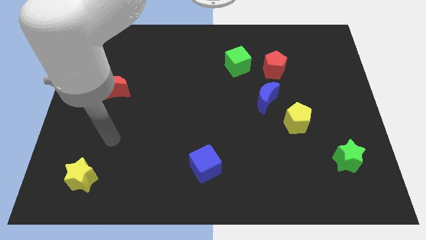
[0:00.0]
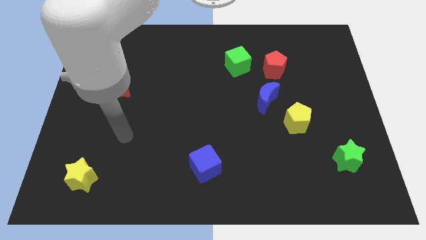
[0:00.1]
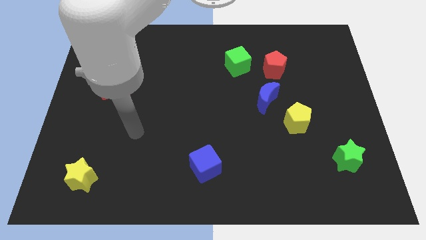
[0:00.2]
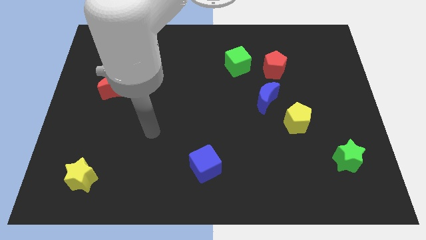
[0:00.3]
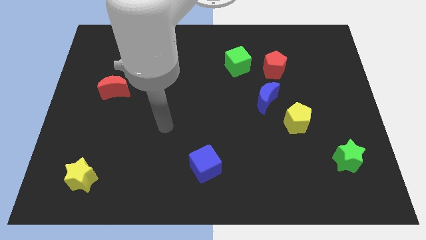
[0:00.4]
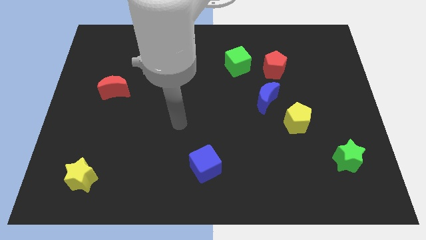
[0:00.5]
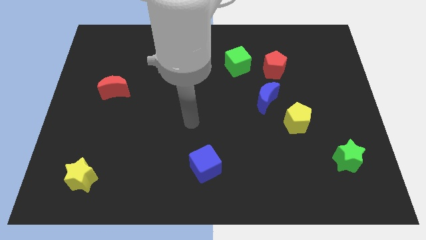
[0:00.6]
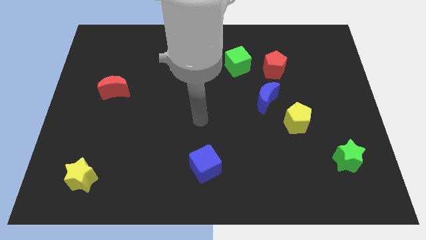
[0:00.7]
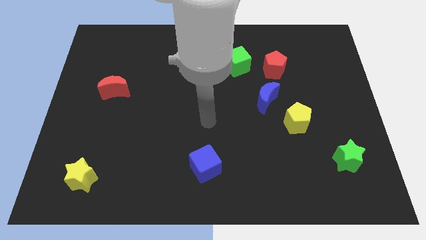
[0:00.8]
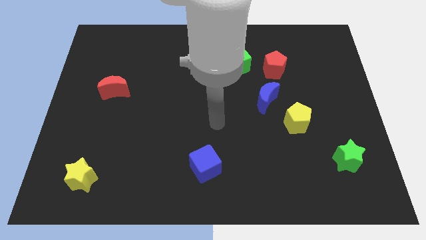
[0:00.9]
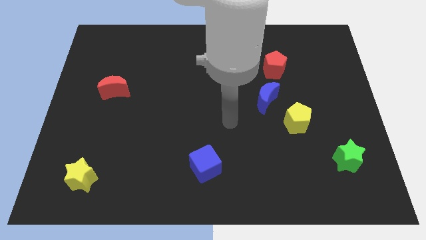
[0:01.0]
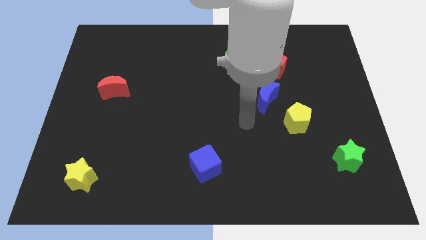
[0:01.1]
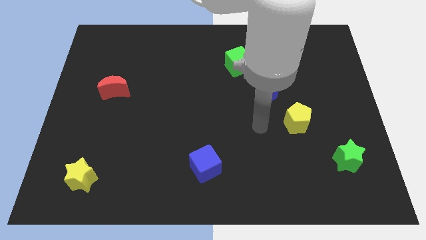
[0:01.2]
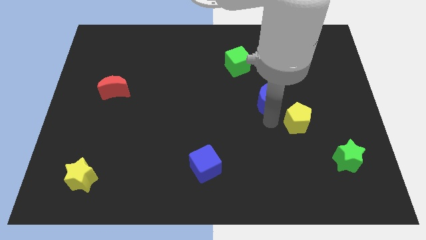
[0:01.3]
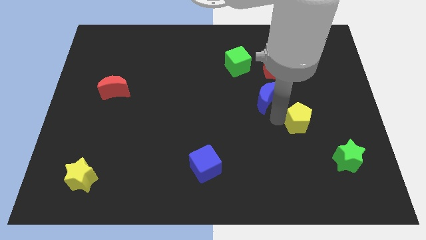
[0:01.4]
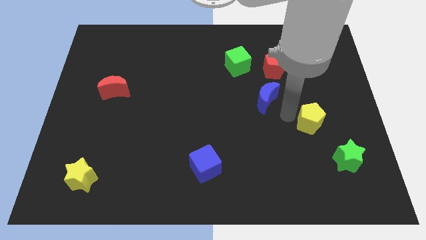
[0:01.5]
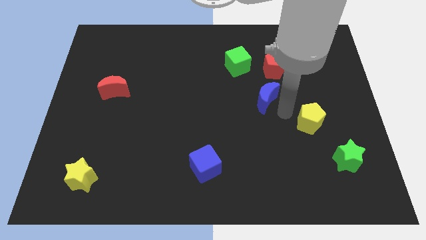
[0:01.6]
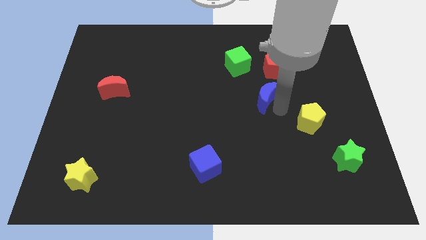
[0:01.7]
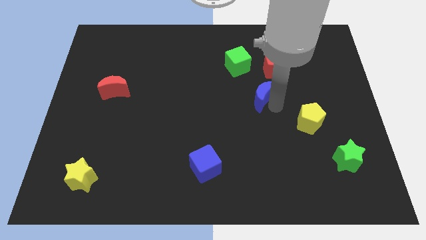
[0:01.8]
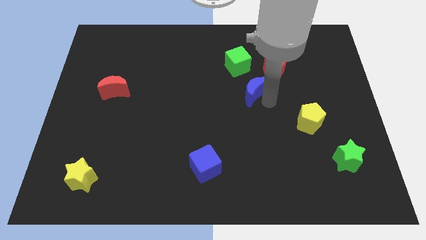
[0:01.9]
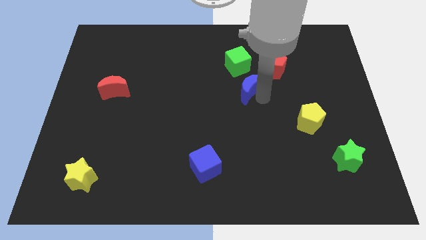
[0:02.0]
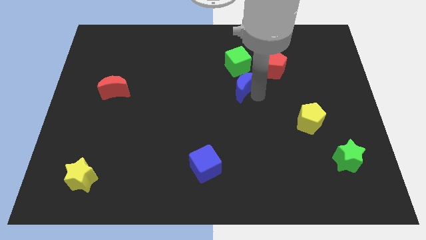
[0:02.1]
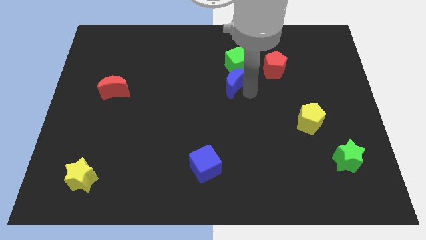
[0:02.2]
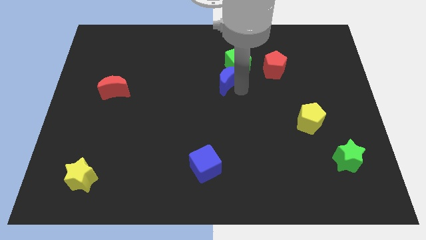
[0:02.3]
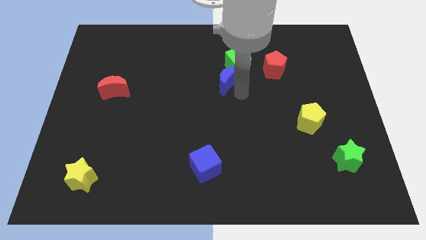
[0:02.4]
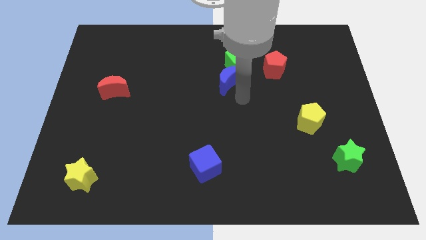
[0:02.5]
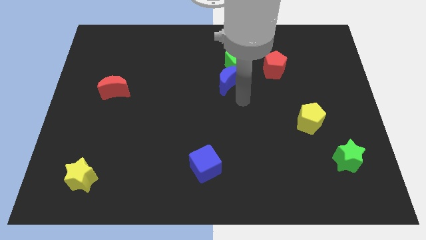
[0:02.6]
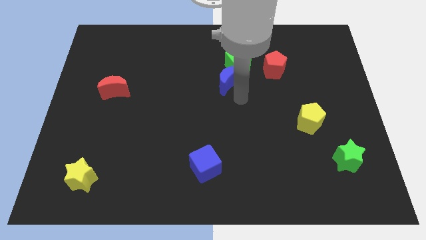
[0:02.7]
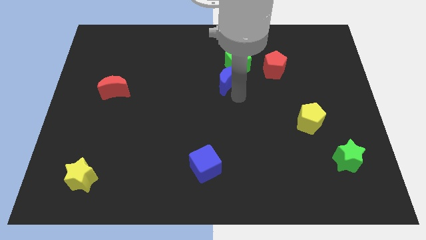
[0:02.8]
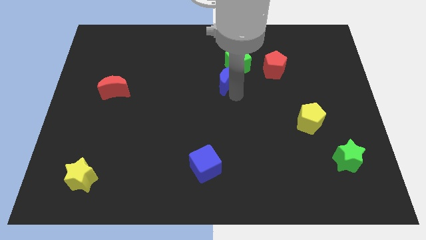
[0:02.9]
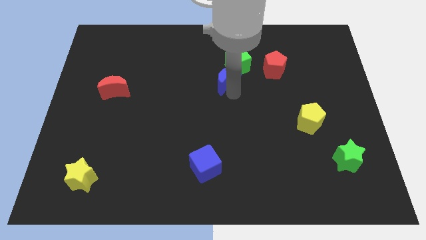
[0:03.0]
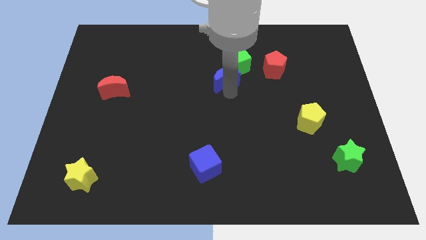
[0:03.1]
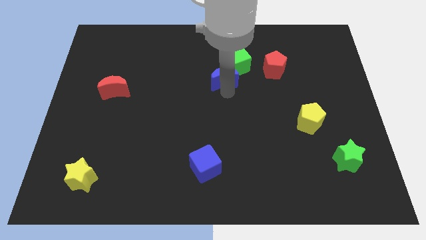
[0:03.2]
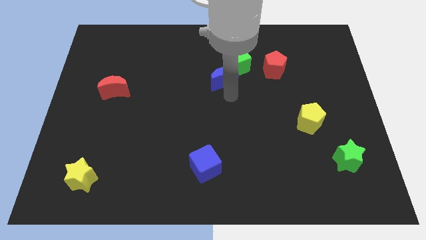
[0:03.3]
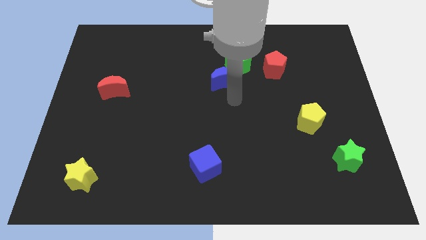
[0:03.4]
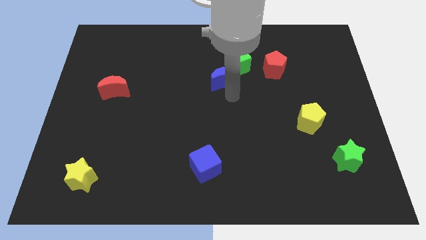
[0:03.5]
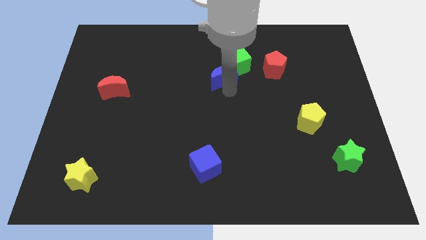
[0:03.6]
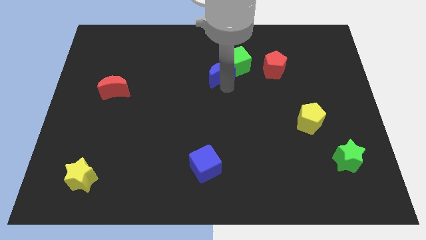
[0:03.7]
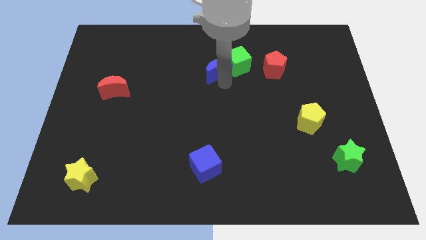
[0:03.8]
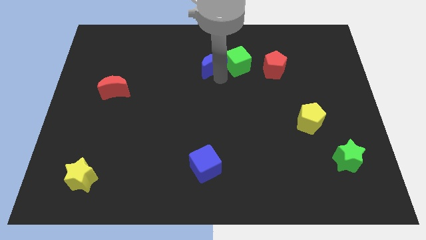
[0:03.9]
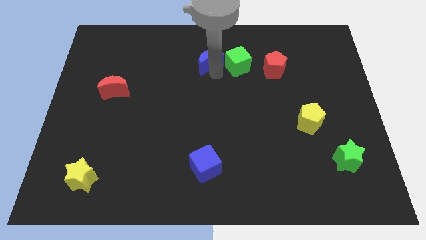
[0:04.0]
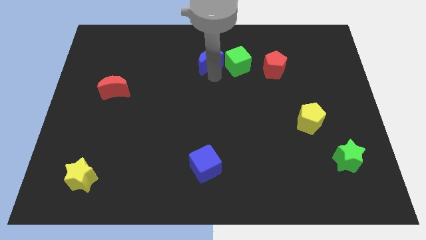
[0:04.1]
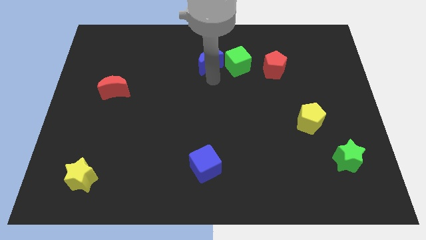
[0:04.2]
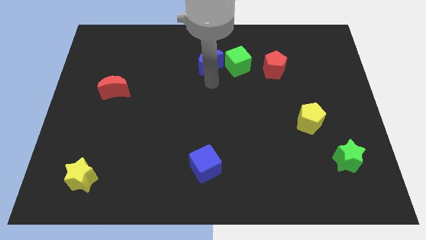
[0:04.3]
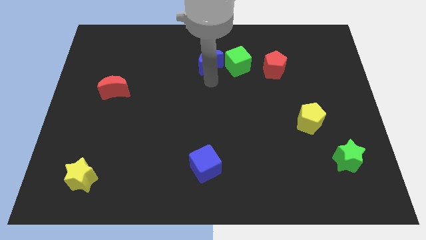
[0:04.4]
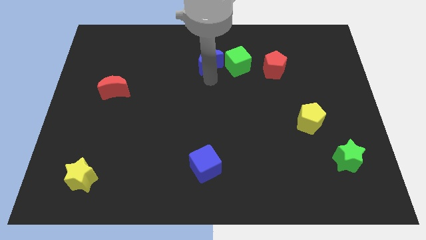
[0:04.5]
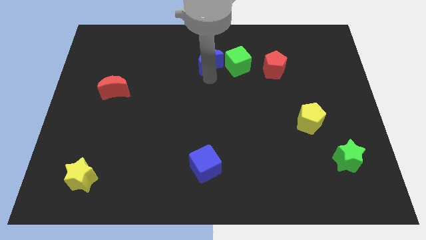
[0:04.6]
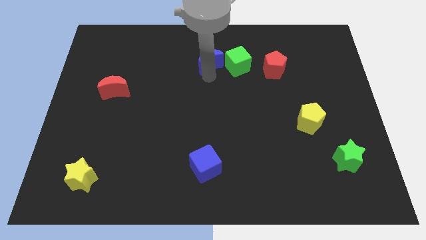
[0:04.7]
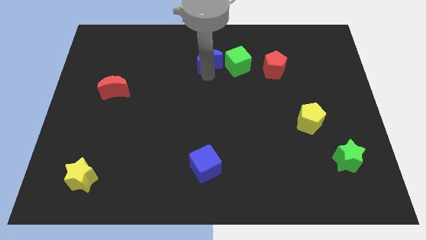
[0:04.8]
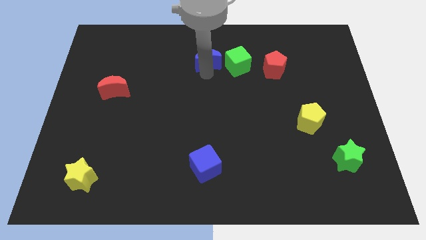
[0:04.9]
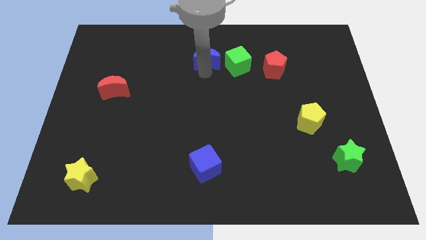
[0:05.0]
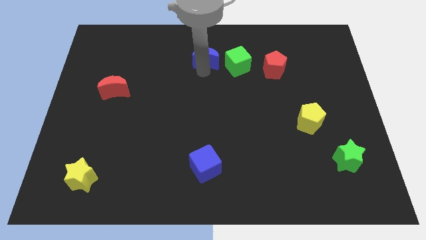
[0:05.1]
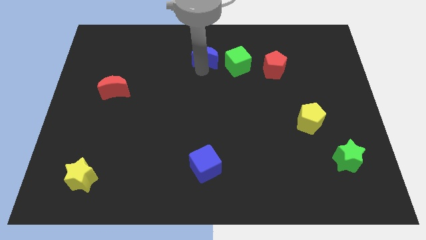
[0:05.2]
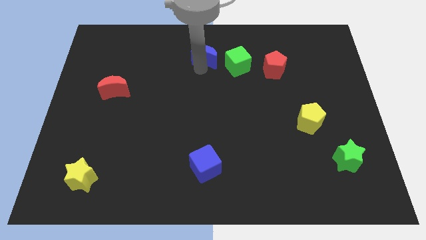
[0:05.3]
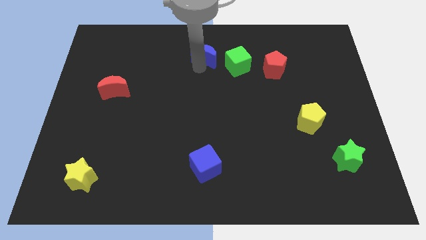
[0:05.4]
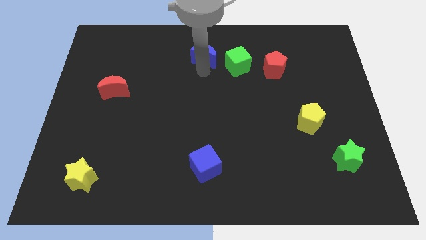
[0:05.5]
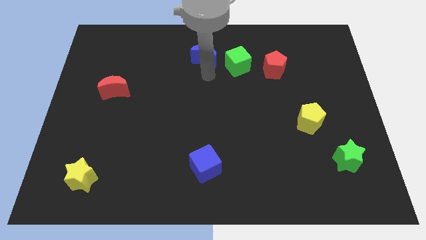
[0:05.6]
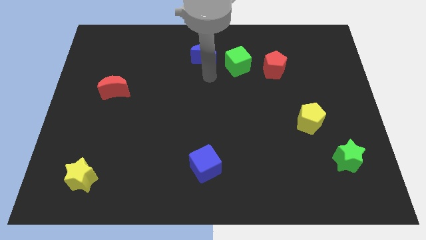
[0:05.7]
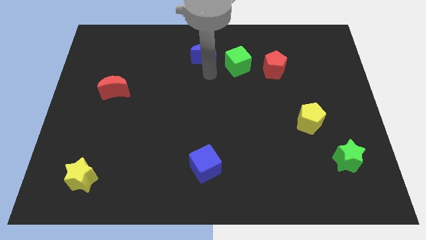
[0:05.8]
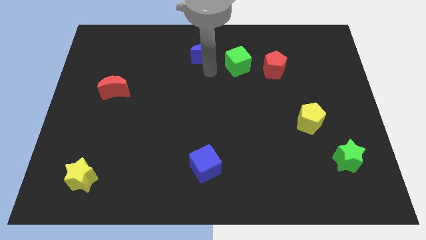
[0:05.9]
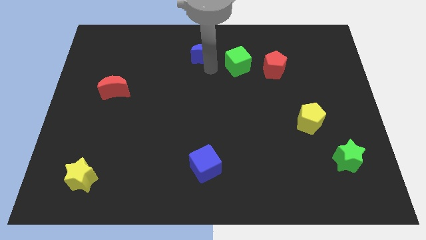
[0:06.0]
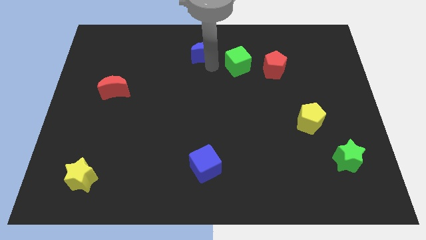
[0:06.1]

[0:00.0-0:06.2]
slide the blue moon to the top

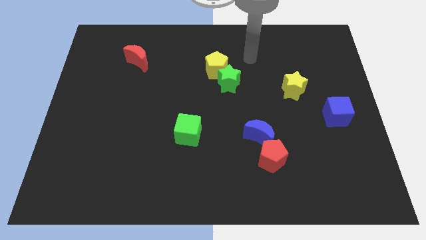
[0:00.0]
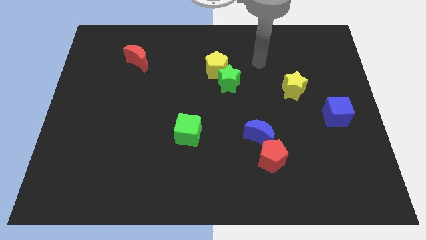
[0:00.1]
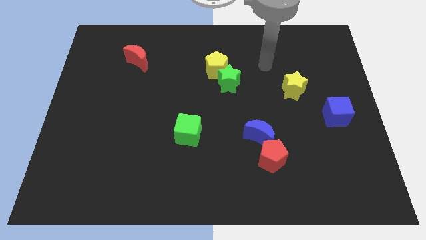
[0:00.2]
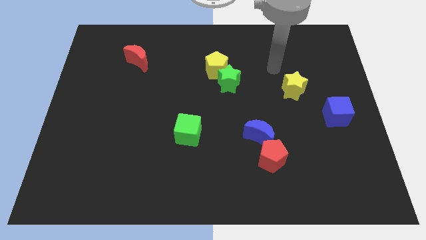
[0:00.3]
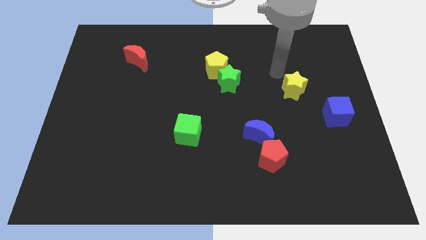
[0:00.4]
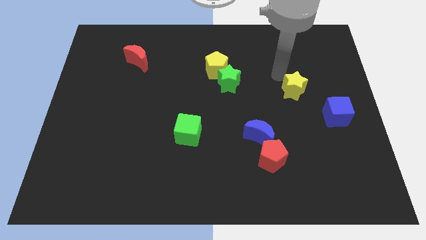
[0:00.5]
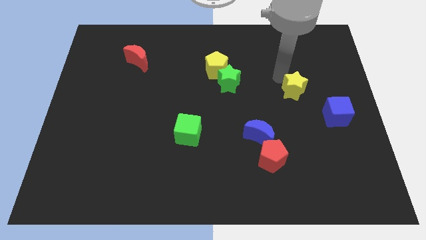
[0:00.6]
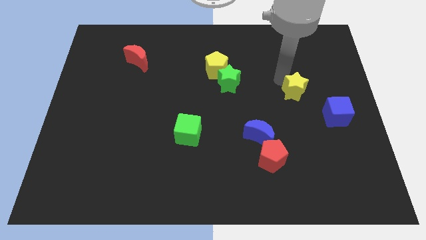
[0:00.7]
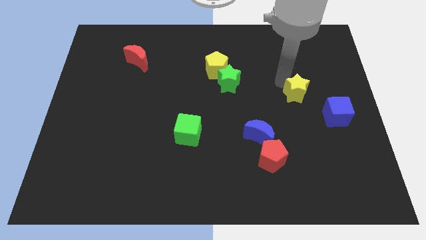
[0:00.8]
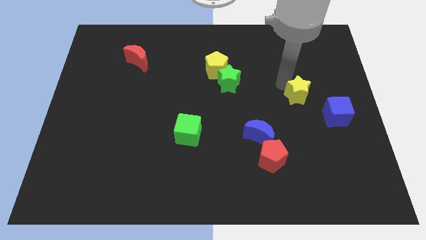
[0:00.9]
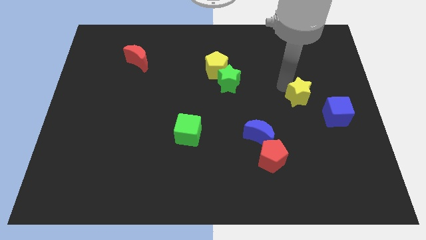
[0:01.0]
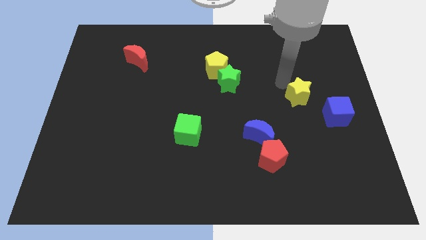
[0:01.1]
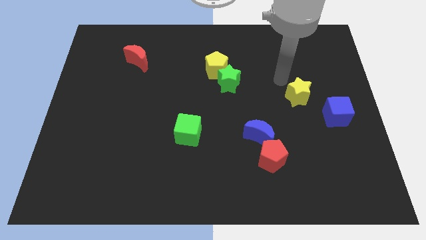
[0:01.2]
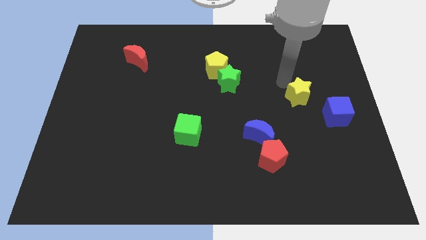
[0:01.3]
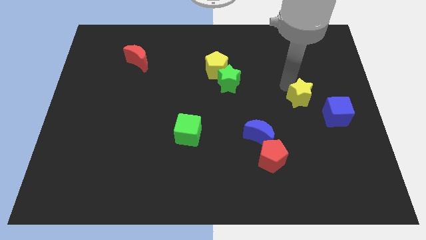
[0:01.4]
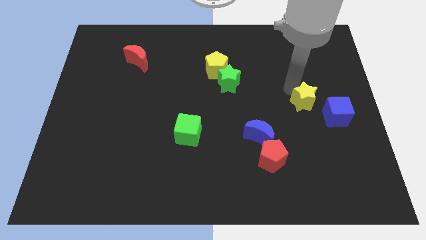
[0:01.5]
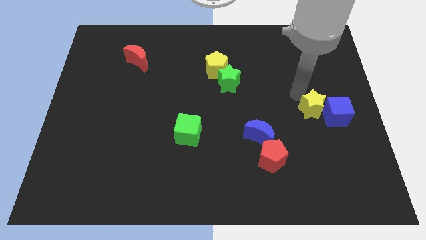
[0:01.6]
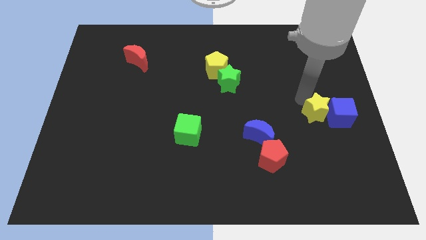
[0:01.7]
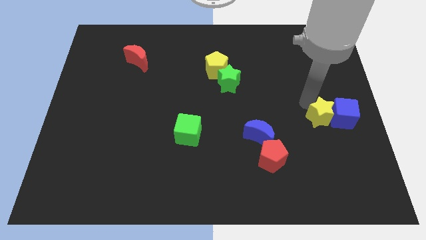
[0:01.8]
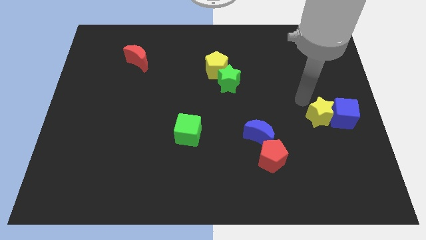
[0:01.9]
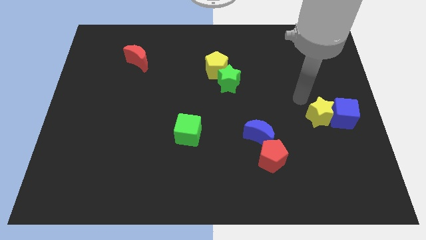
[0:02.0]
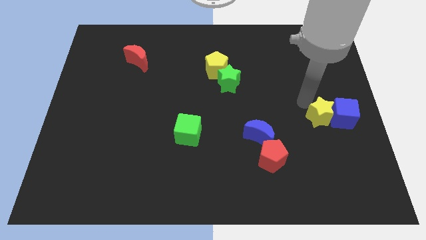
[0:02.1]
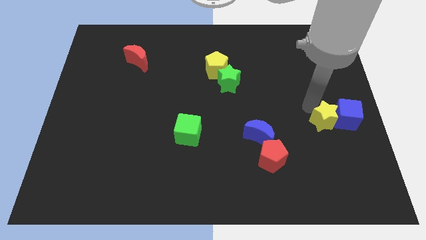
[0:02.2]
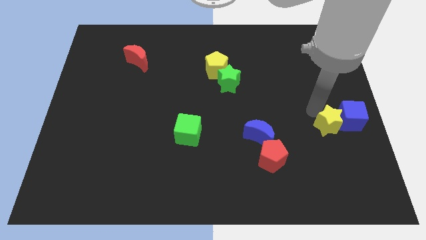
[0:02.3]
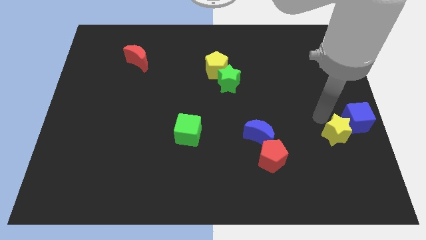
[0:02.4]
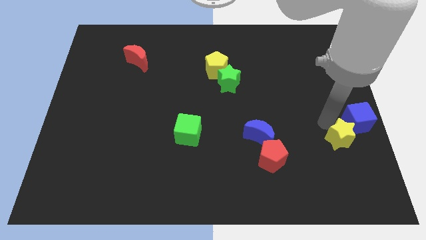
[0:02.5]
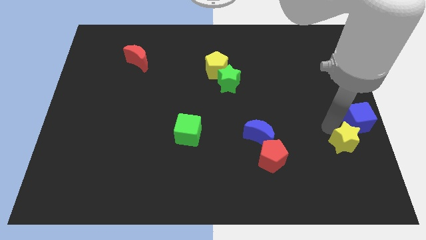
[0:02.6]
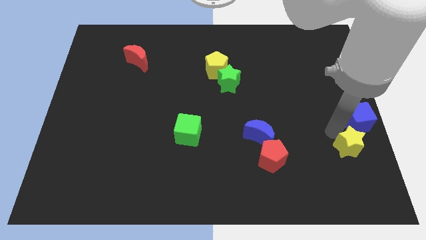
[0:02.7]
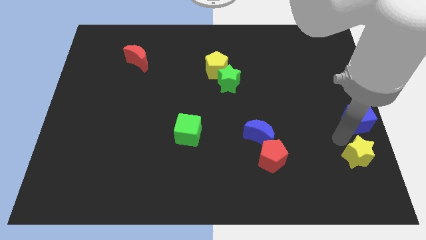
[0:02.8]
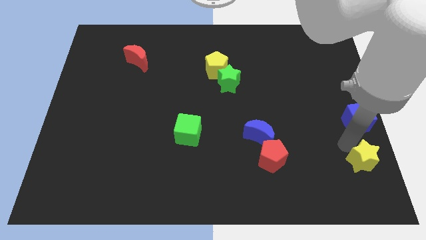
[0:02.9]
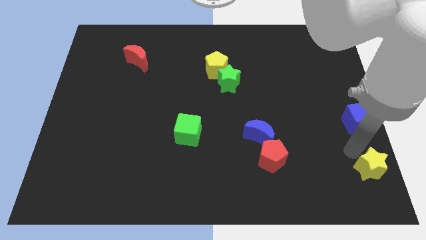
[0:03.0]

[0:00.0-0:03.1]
move the yellow star to the bottom right of the board
